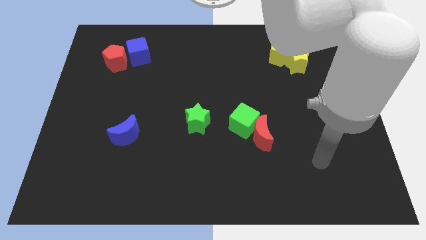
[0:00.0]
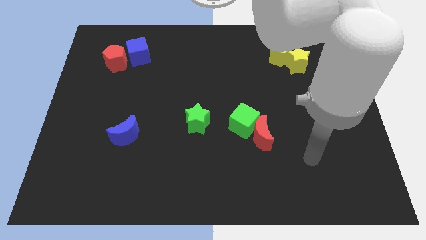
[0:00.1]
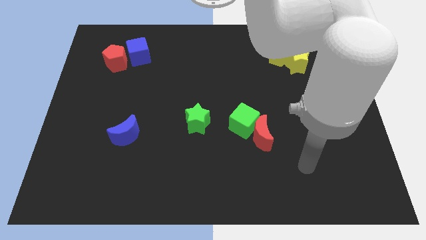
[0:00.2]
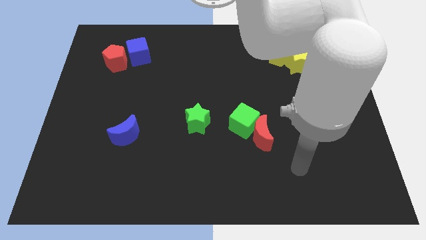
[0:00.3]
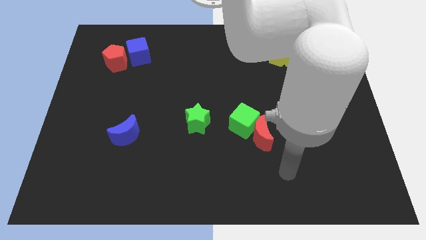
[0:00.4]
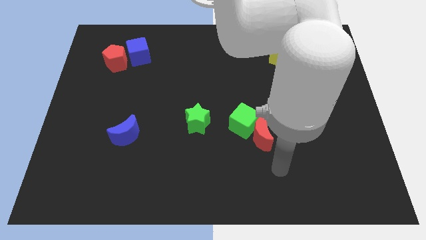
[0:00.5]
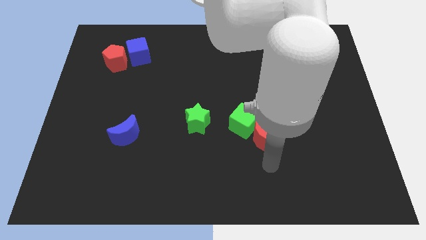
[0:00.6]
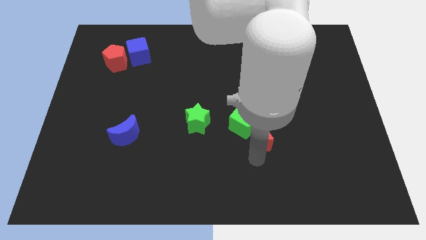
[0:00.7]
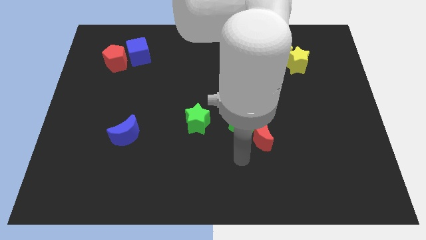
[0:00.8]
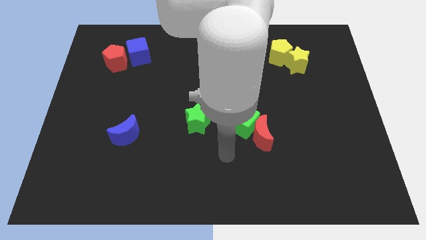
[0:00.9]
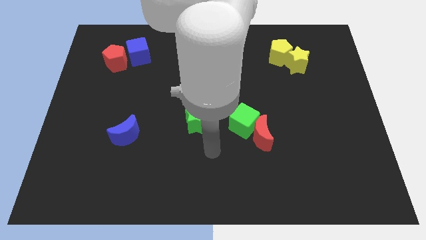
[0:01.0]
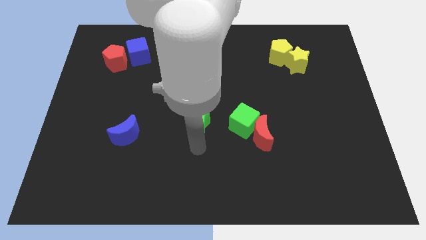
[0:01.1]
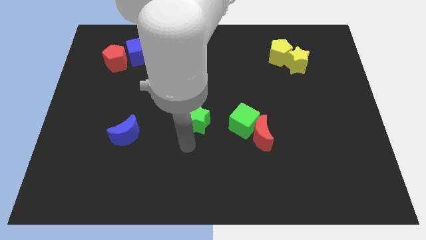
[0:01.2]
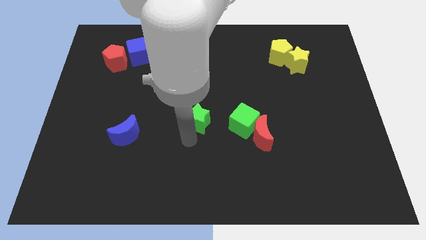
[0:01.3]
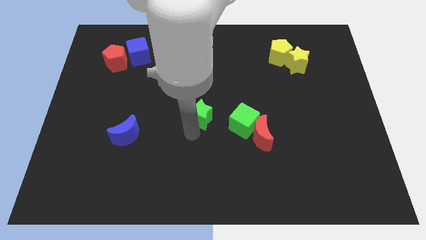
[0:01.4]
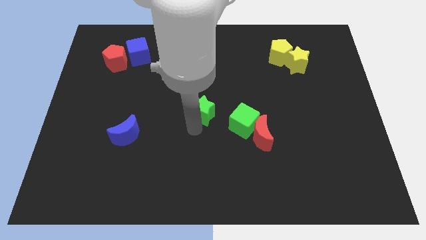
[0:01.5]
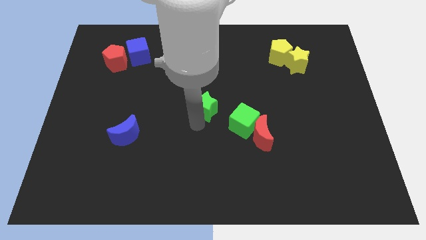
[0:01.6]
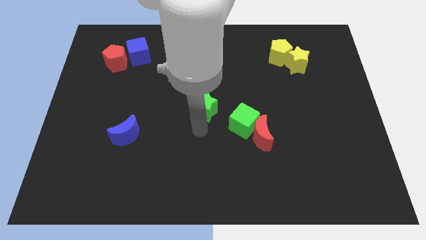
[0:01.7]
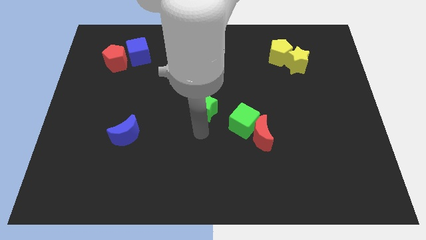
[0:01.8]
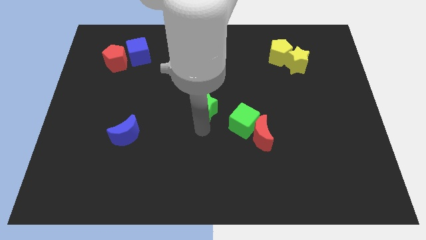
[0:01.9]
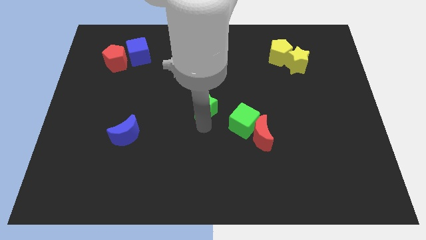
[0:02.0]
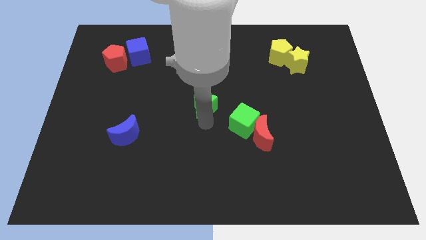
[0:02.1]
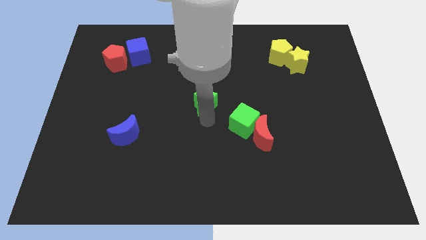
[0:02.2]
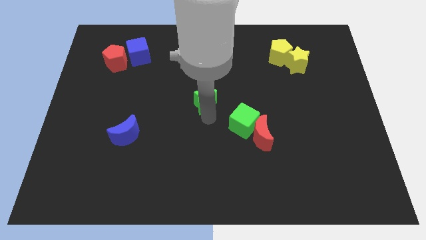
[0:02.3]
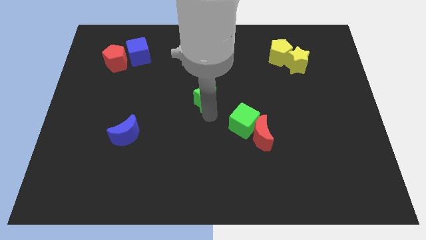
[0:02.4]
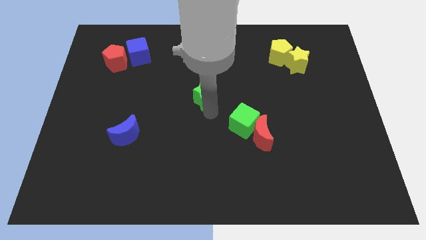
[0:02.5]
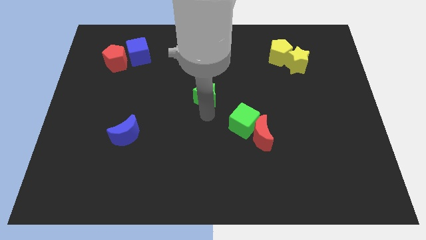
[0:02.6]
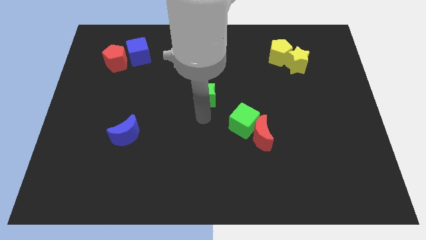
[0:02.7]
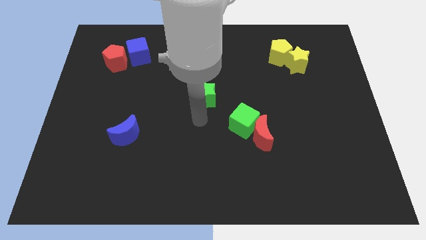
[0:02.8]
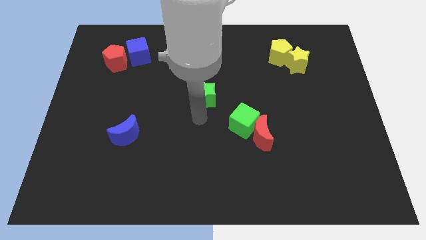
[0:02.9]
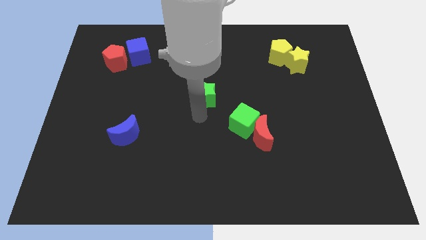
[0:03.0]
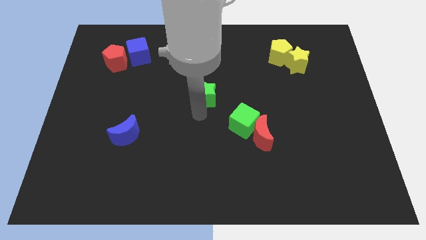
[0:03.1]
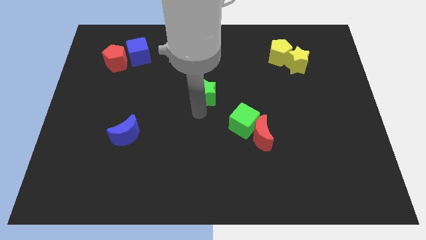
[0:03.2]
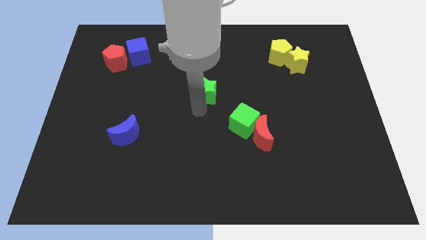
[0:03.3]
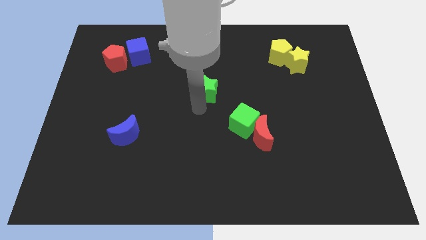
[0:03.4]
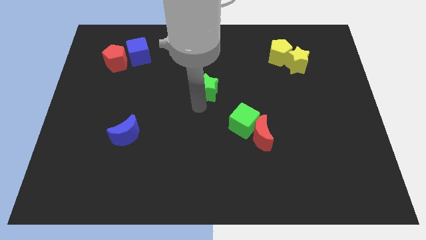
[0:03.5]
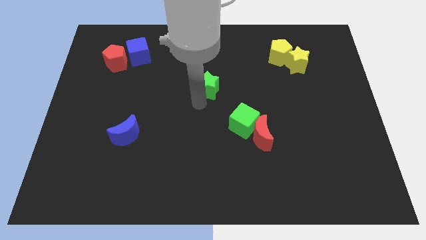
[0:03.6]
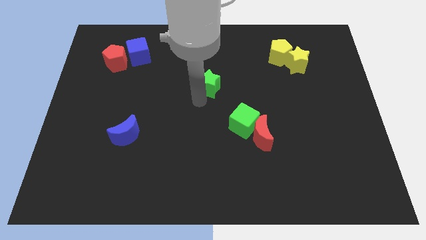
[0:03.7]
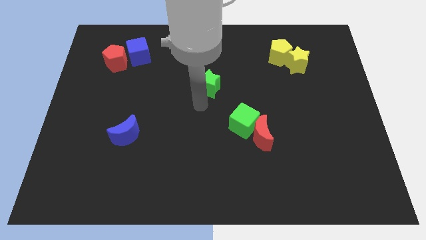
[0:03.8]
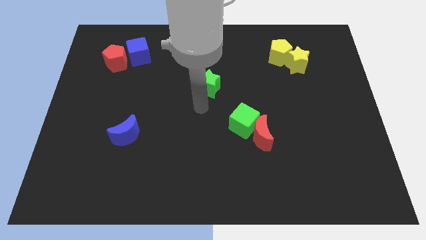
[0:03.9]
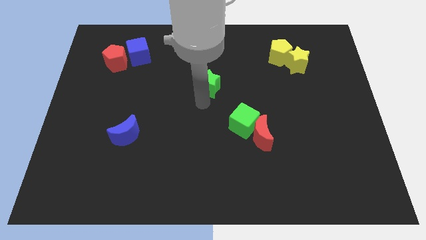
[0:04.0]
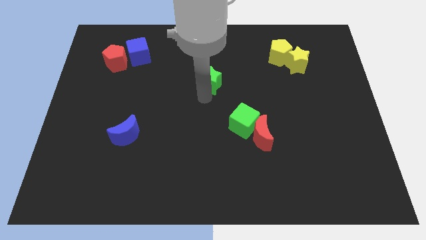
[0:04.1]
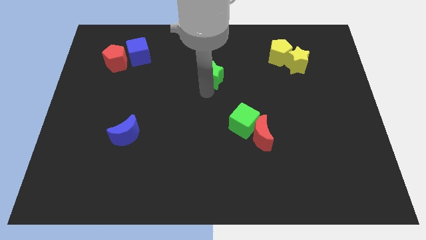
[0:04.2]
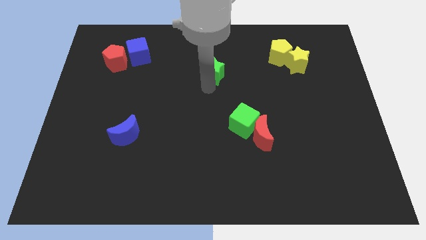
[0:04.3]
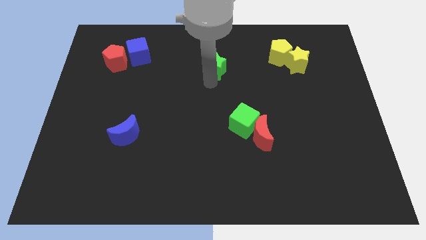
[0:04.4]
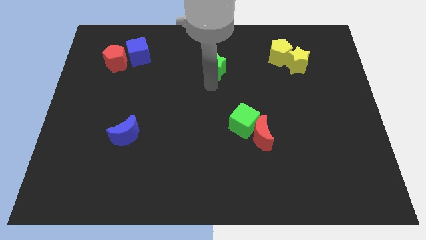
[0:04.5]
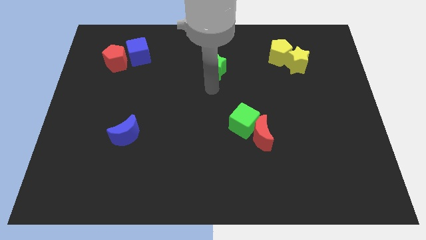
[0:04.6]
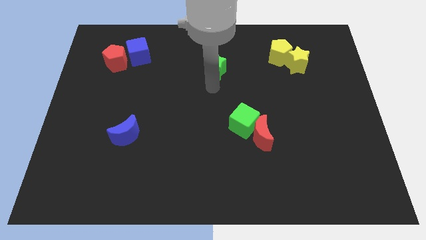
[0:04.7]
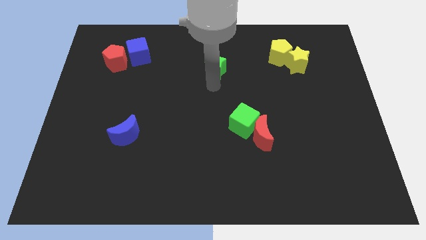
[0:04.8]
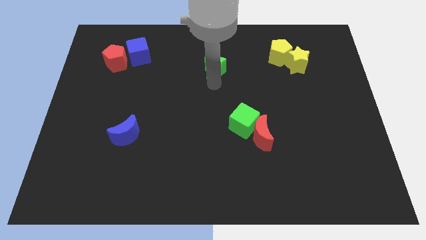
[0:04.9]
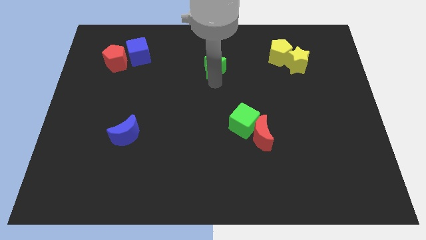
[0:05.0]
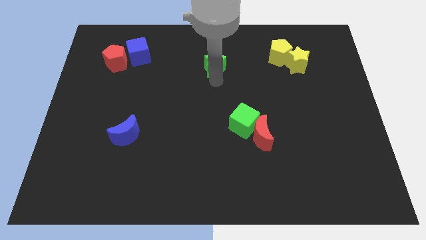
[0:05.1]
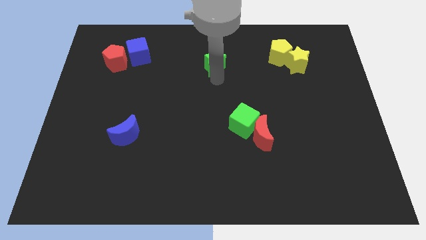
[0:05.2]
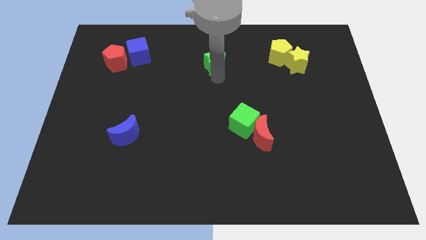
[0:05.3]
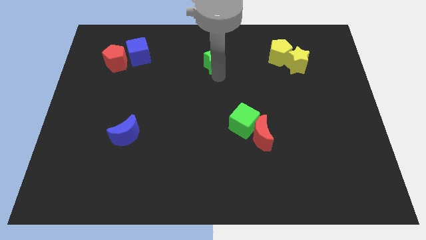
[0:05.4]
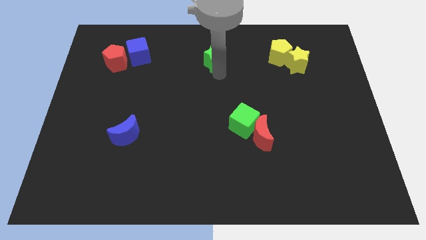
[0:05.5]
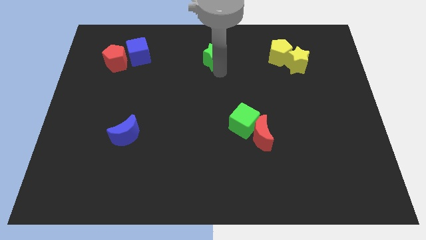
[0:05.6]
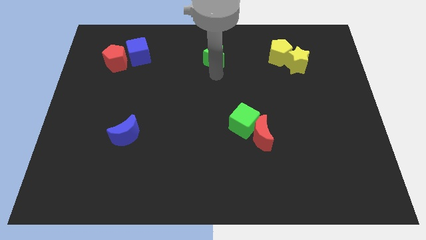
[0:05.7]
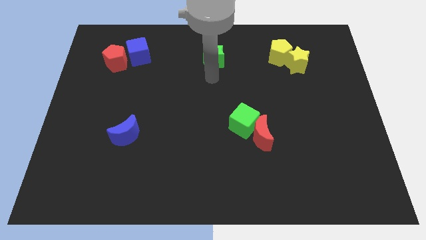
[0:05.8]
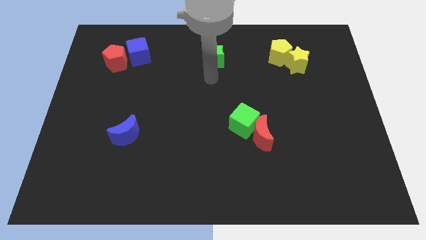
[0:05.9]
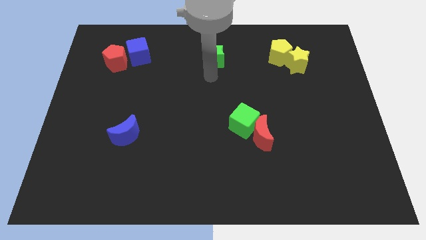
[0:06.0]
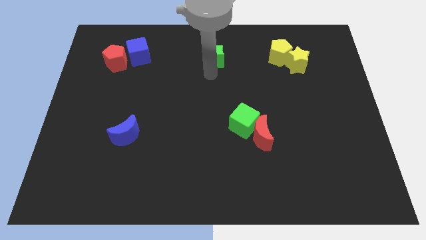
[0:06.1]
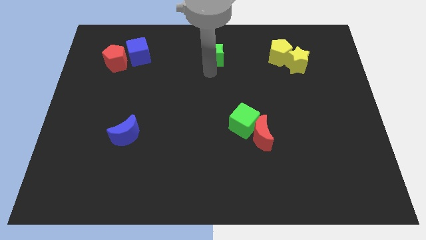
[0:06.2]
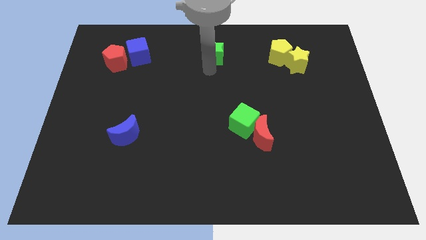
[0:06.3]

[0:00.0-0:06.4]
slide the green star to the towards your base
